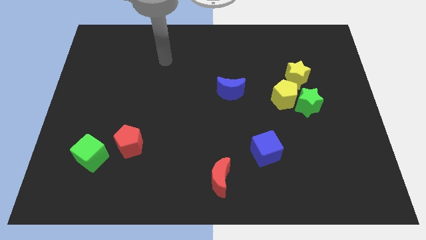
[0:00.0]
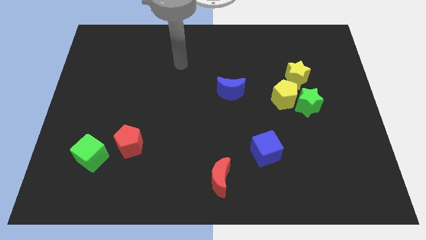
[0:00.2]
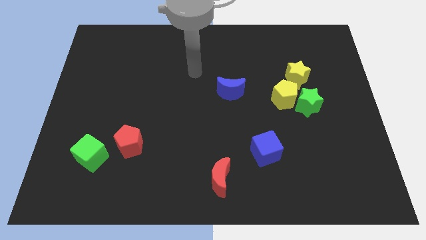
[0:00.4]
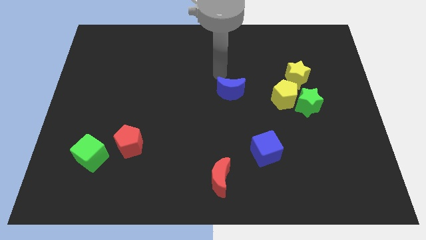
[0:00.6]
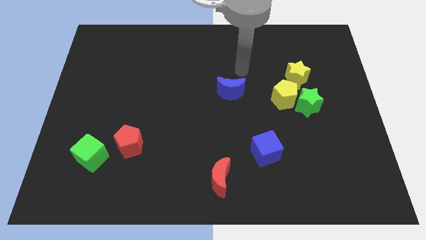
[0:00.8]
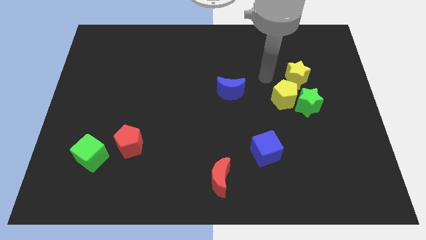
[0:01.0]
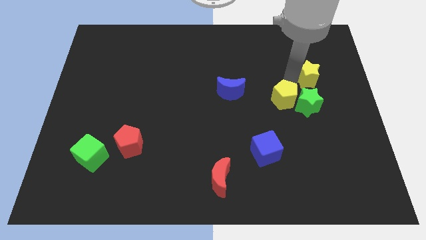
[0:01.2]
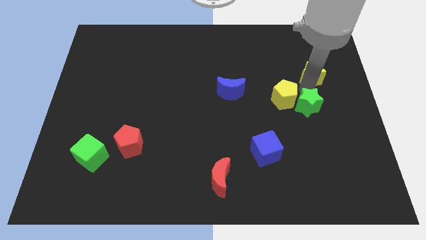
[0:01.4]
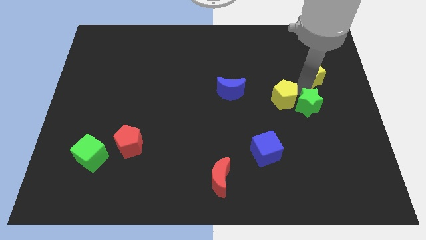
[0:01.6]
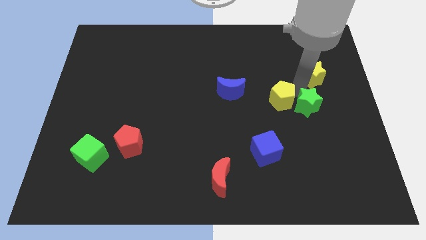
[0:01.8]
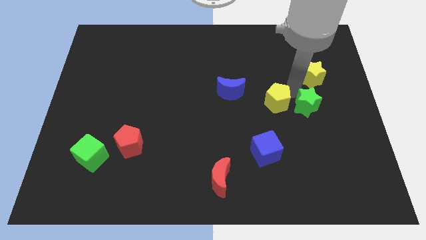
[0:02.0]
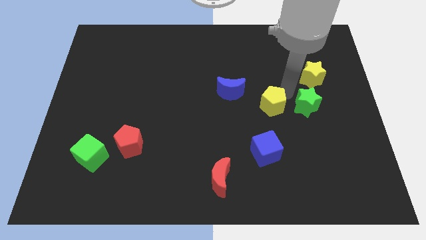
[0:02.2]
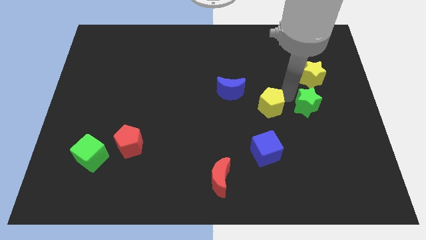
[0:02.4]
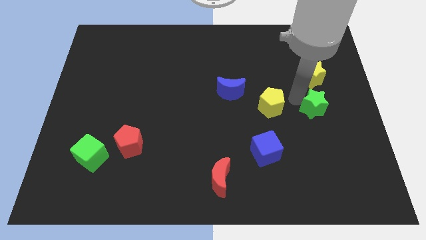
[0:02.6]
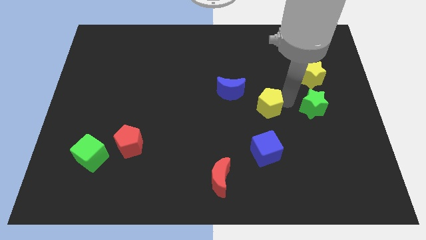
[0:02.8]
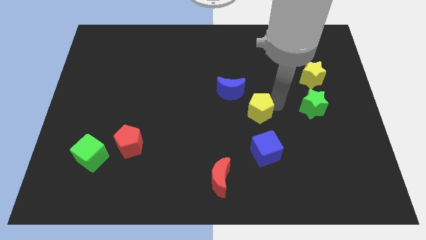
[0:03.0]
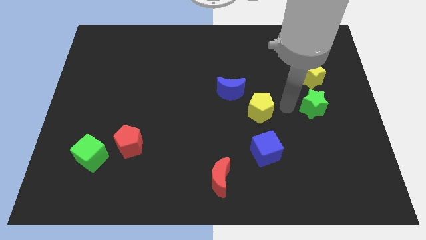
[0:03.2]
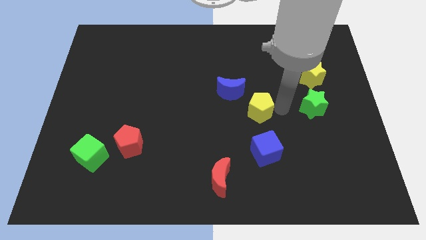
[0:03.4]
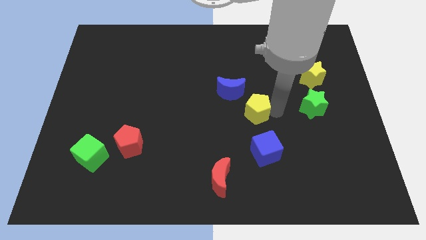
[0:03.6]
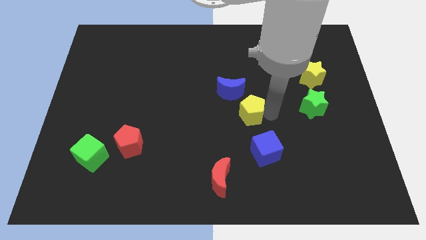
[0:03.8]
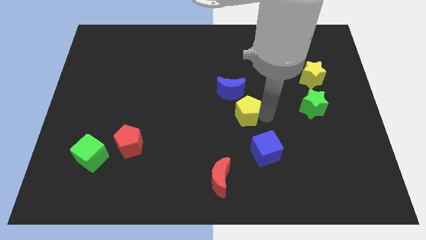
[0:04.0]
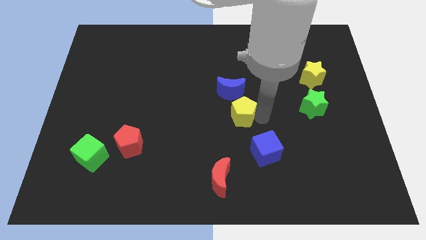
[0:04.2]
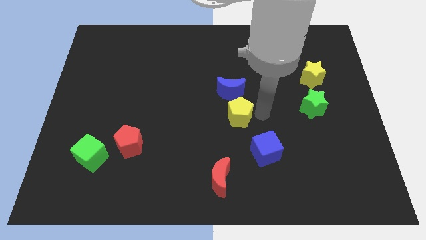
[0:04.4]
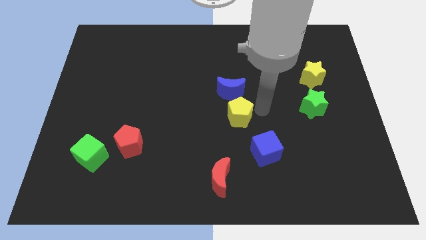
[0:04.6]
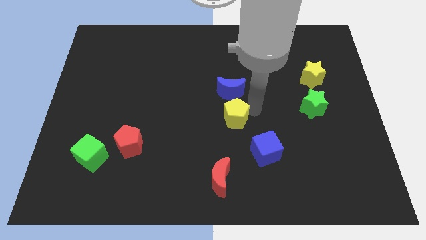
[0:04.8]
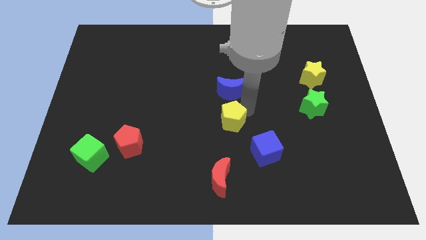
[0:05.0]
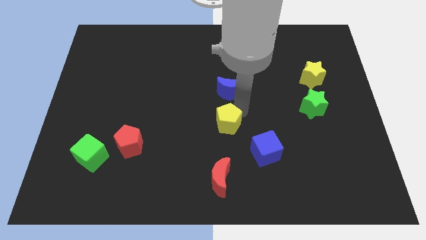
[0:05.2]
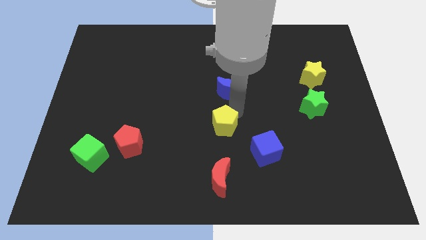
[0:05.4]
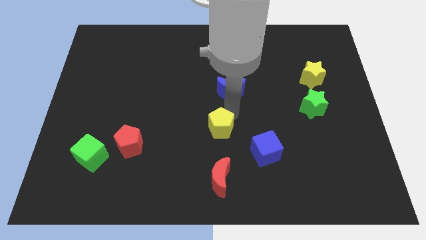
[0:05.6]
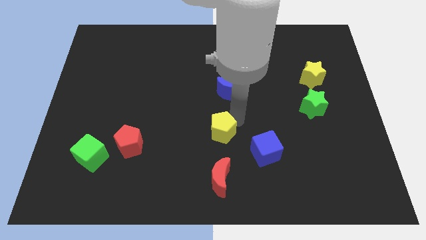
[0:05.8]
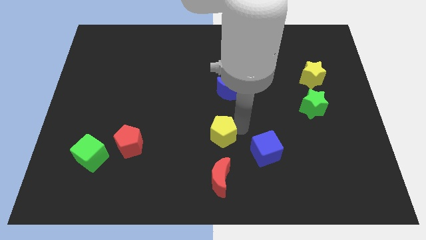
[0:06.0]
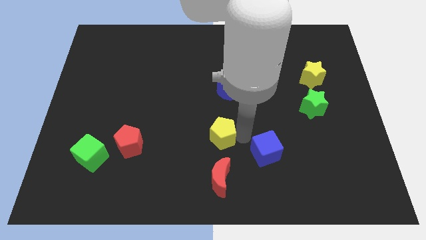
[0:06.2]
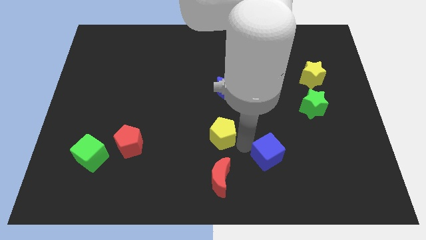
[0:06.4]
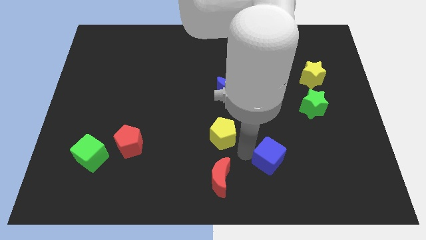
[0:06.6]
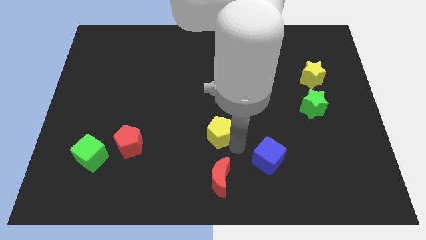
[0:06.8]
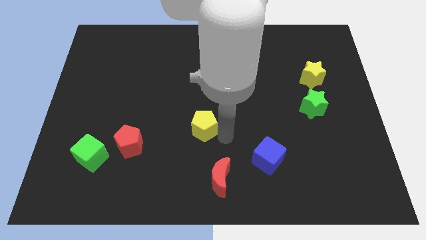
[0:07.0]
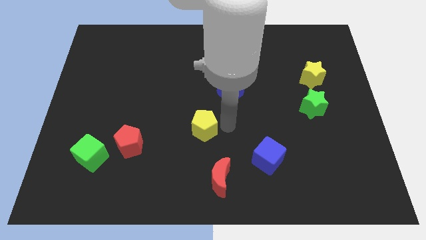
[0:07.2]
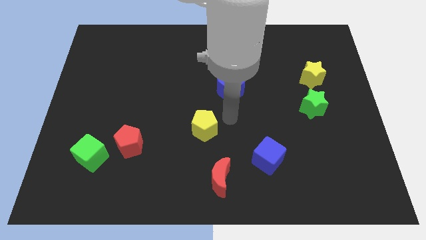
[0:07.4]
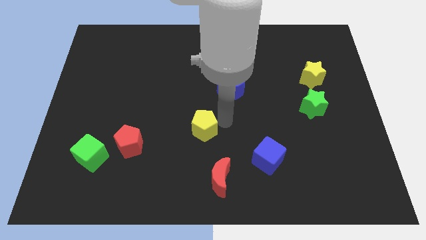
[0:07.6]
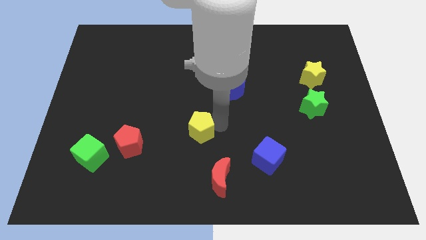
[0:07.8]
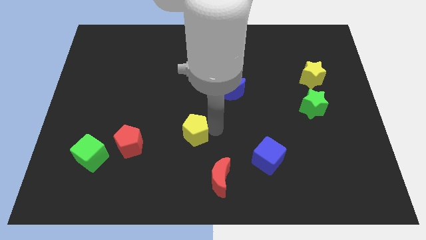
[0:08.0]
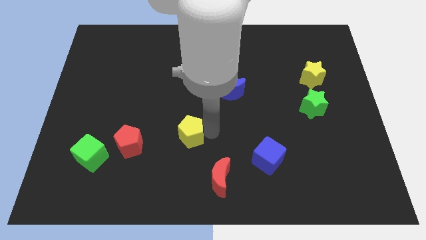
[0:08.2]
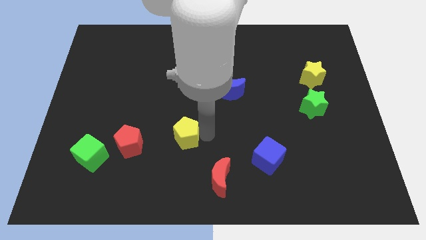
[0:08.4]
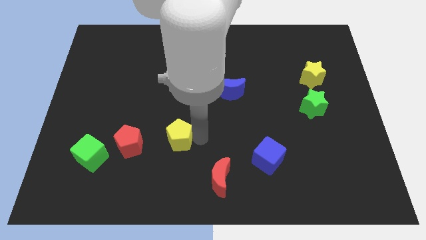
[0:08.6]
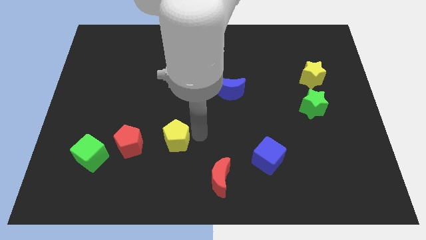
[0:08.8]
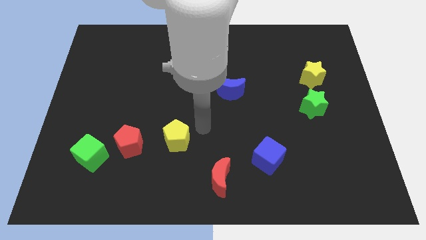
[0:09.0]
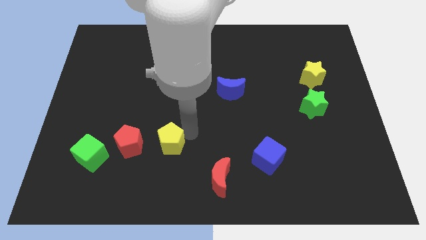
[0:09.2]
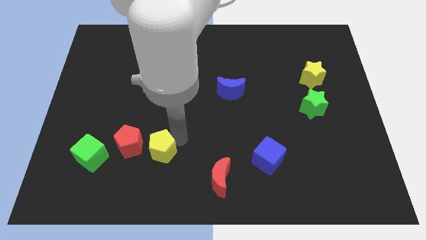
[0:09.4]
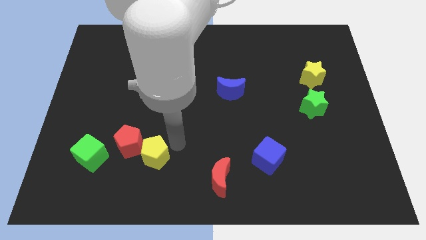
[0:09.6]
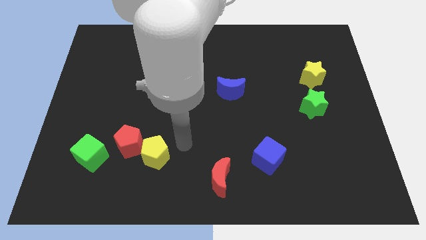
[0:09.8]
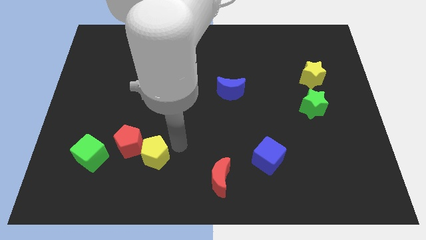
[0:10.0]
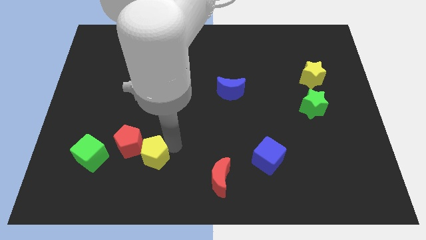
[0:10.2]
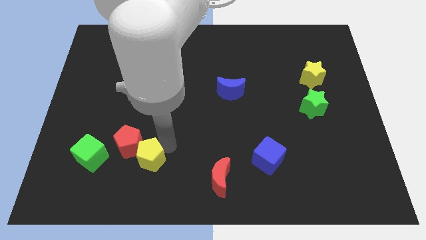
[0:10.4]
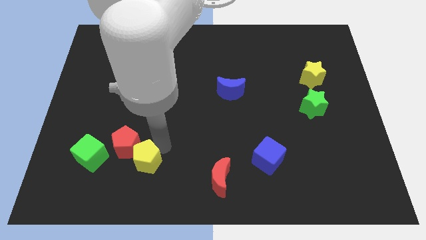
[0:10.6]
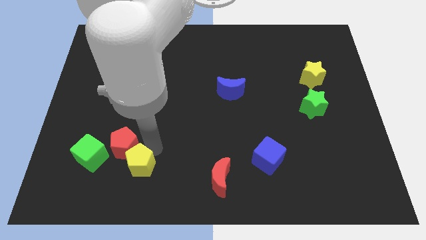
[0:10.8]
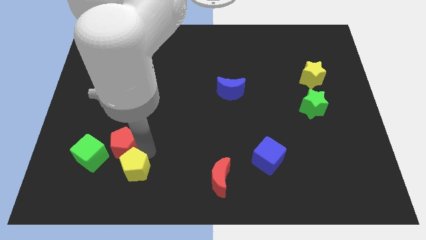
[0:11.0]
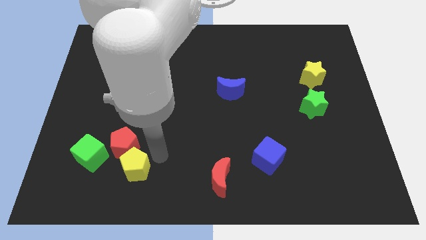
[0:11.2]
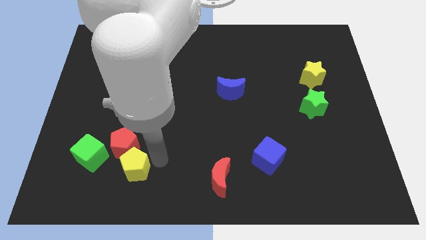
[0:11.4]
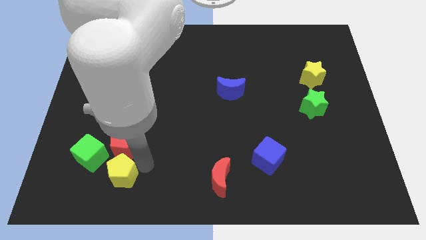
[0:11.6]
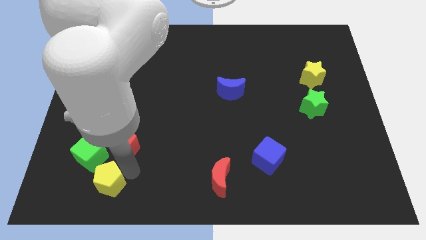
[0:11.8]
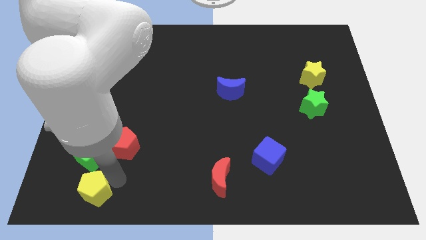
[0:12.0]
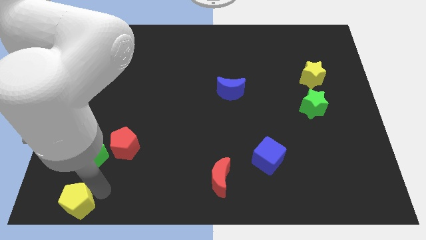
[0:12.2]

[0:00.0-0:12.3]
push the yellow pentagon to the lower left corner

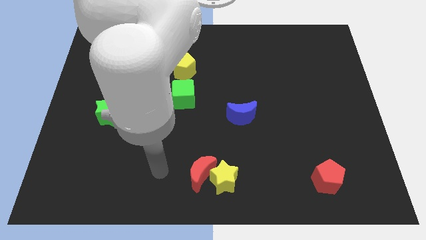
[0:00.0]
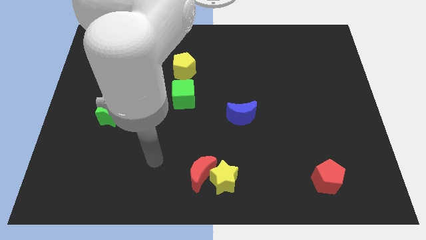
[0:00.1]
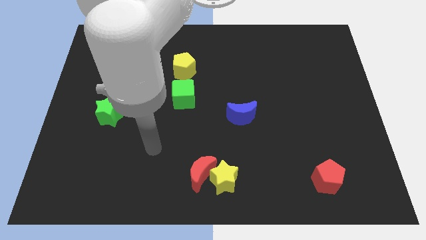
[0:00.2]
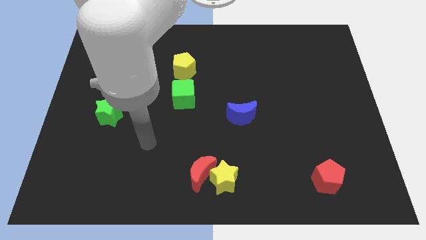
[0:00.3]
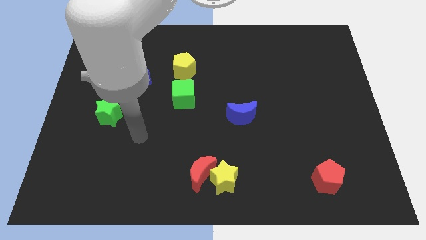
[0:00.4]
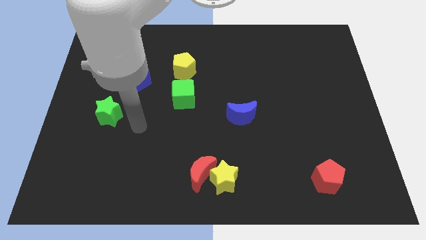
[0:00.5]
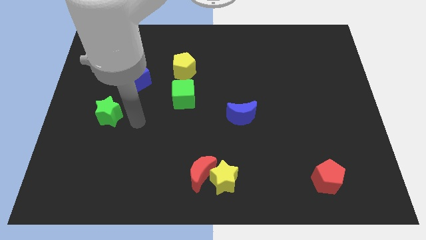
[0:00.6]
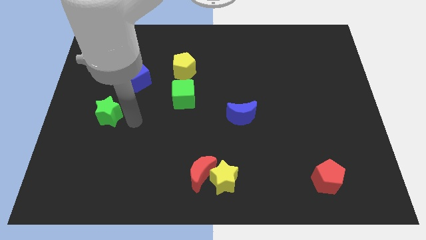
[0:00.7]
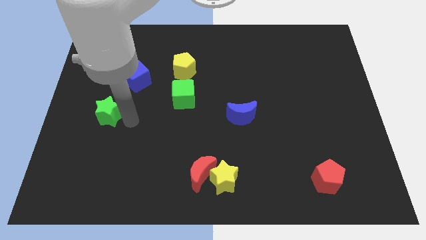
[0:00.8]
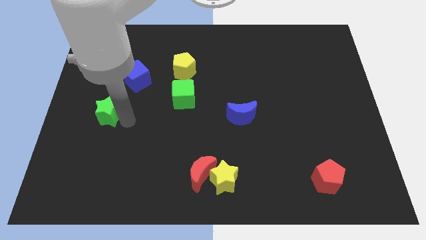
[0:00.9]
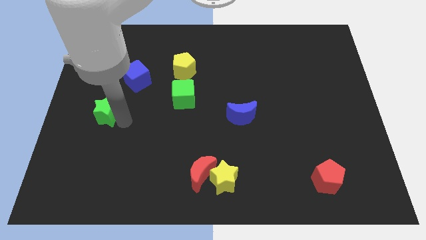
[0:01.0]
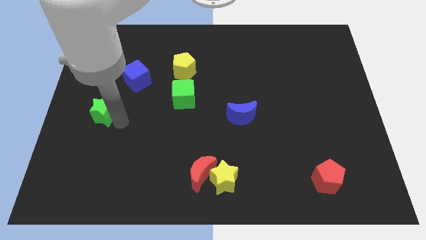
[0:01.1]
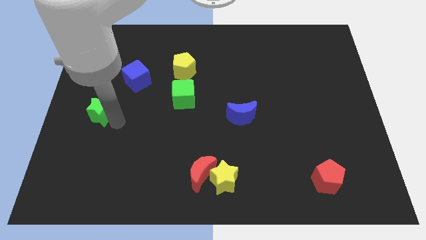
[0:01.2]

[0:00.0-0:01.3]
move the green star to the center left
